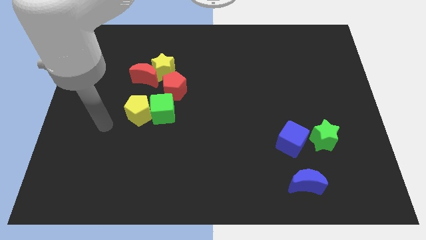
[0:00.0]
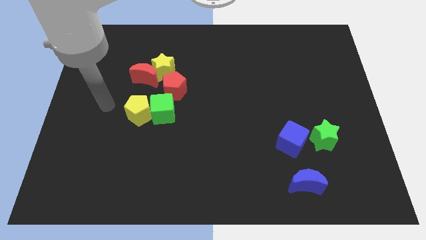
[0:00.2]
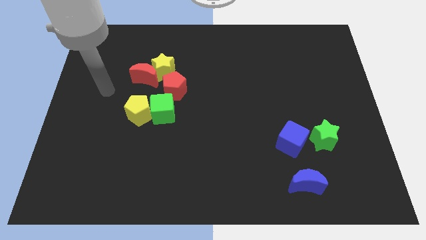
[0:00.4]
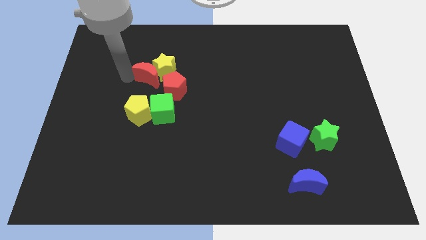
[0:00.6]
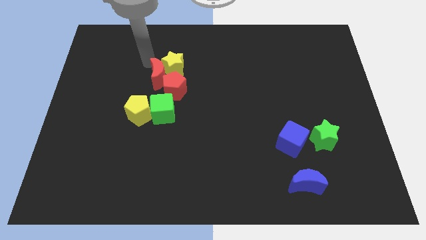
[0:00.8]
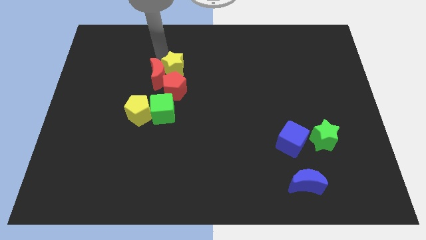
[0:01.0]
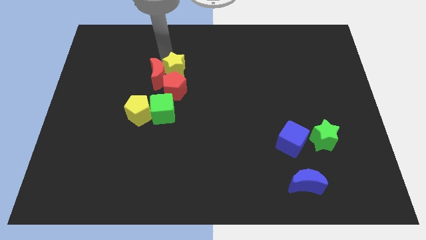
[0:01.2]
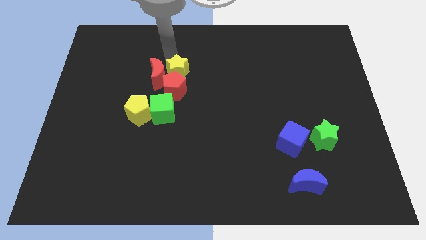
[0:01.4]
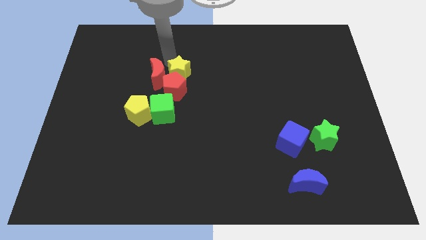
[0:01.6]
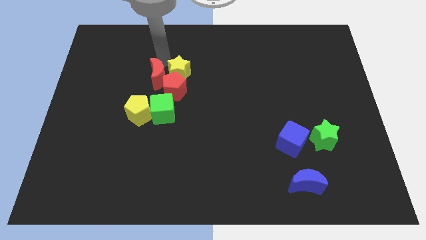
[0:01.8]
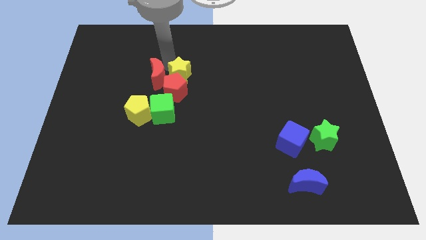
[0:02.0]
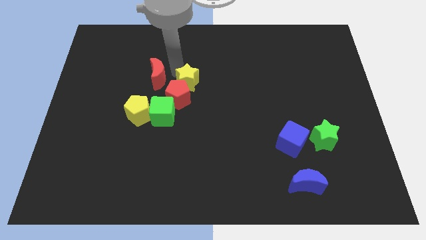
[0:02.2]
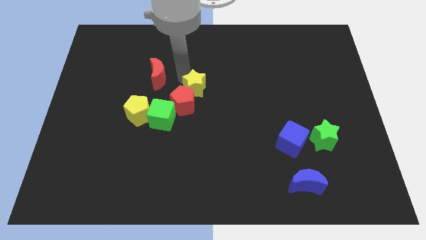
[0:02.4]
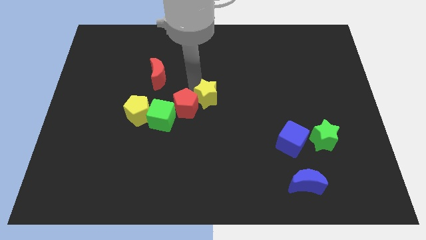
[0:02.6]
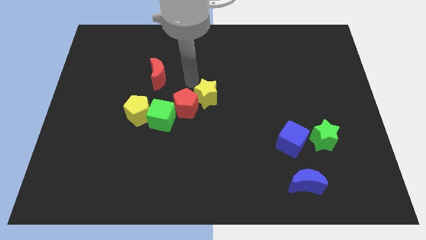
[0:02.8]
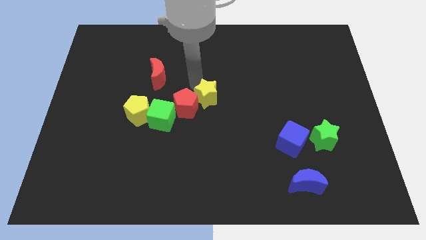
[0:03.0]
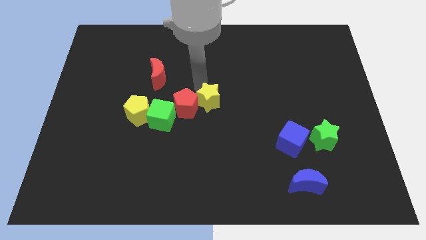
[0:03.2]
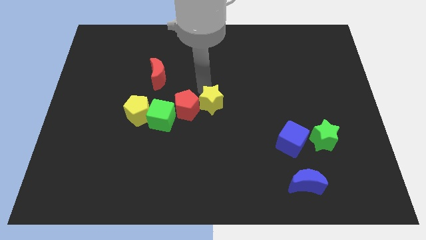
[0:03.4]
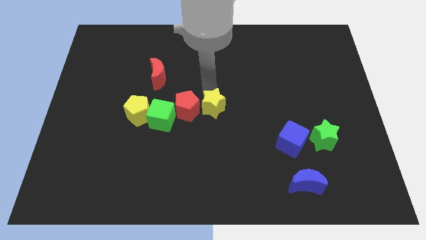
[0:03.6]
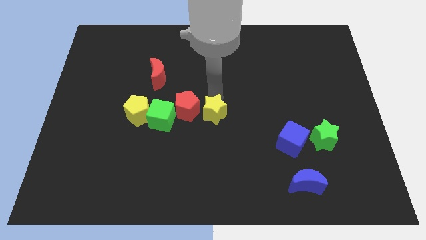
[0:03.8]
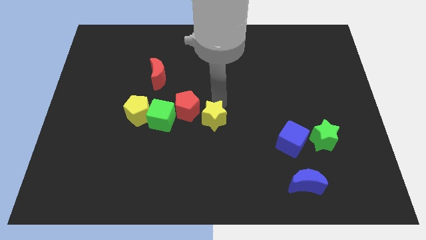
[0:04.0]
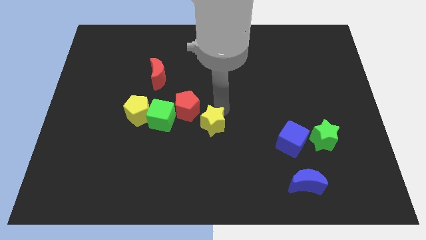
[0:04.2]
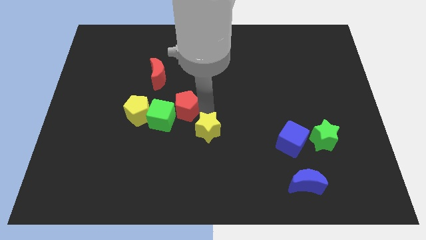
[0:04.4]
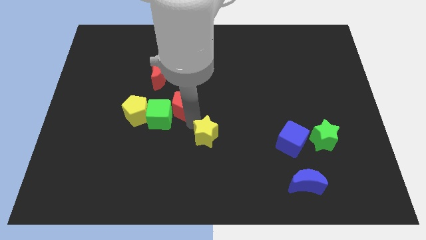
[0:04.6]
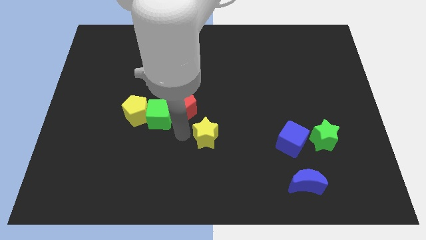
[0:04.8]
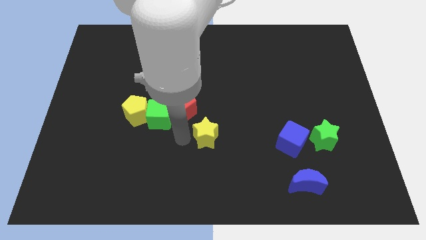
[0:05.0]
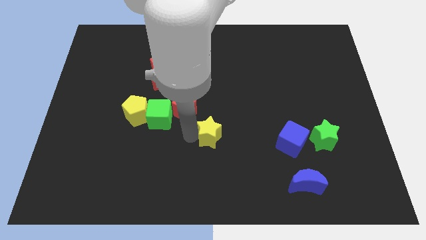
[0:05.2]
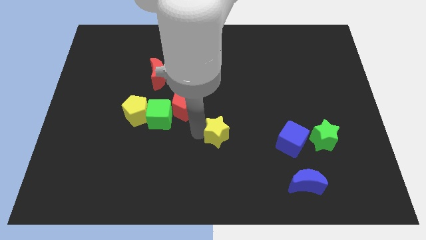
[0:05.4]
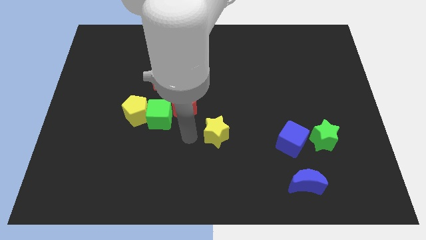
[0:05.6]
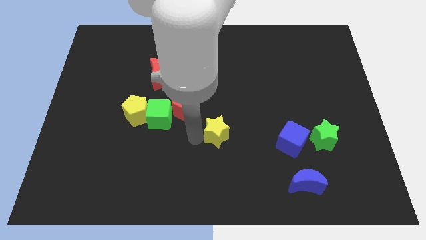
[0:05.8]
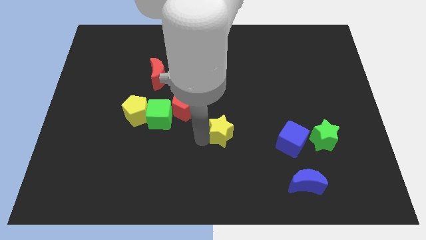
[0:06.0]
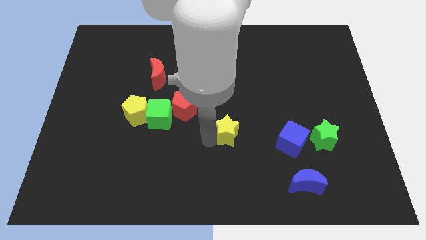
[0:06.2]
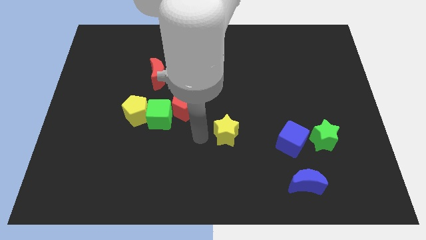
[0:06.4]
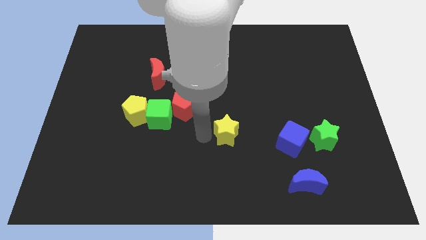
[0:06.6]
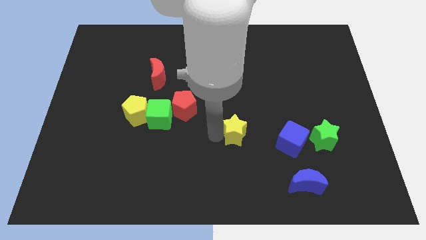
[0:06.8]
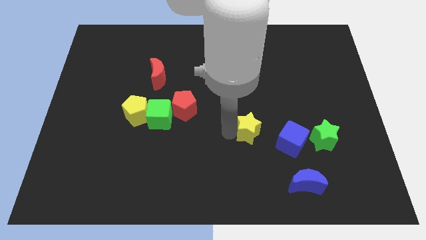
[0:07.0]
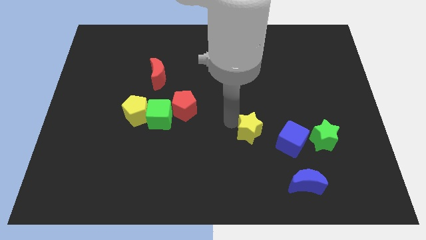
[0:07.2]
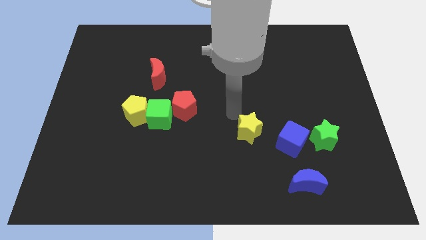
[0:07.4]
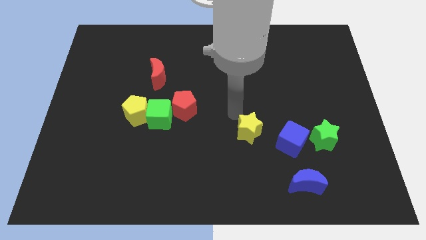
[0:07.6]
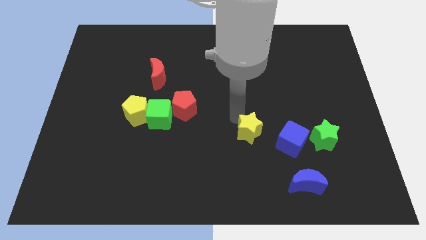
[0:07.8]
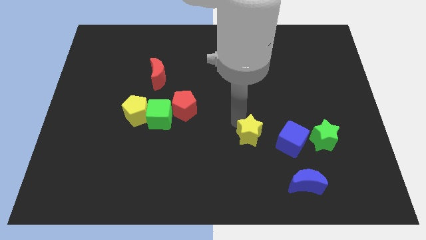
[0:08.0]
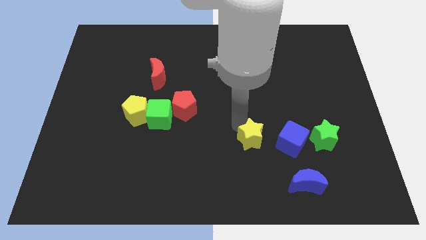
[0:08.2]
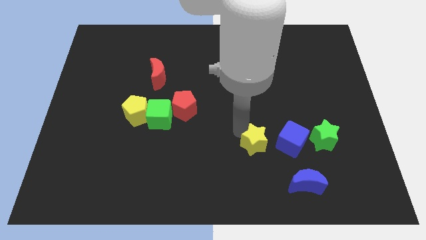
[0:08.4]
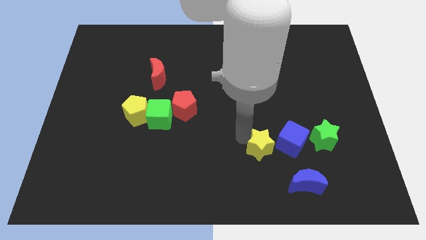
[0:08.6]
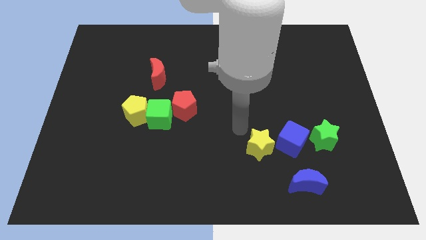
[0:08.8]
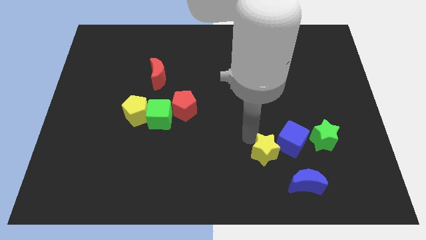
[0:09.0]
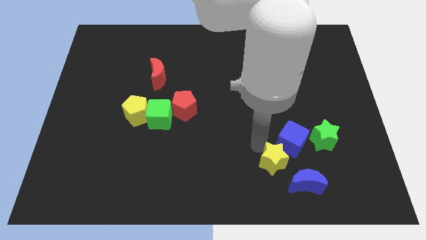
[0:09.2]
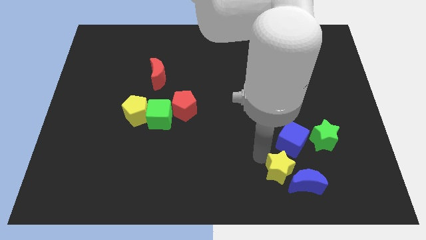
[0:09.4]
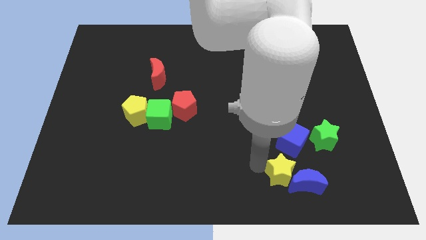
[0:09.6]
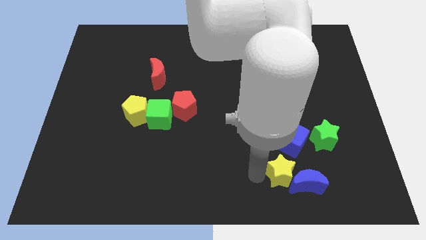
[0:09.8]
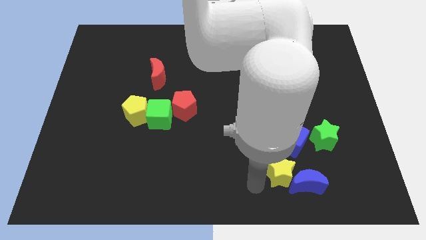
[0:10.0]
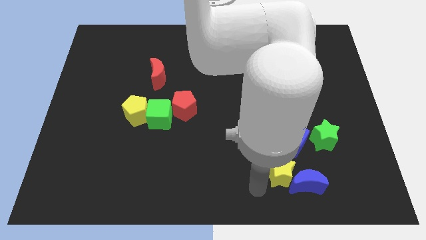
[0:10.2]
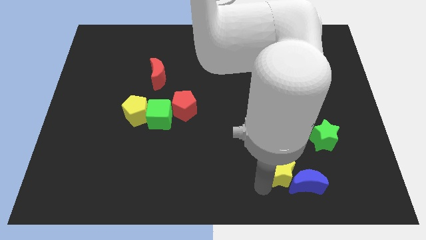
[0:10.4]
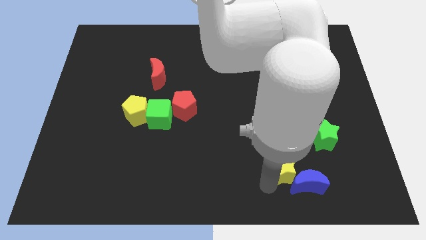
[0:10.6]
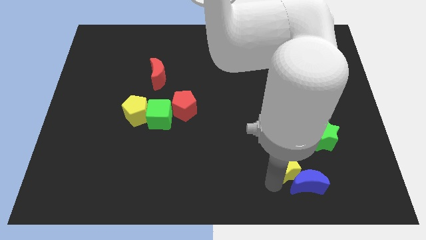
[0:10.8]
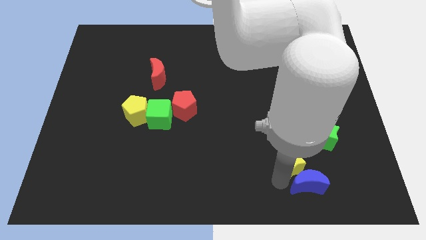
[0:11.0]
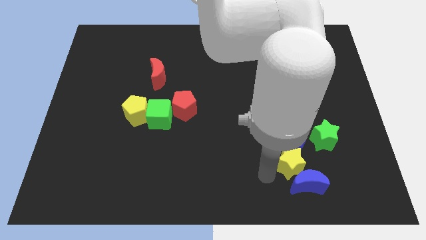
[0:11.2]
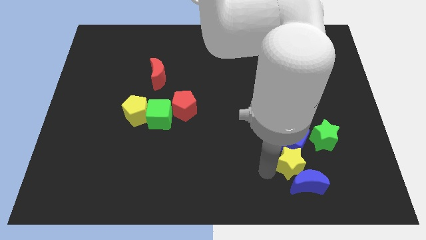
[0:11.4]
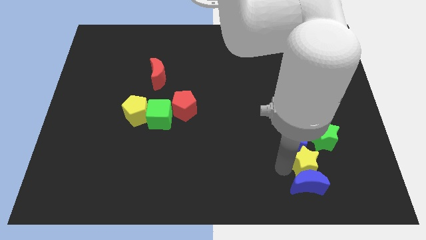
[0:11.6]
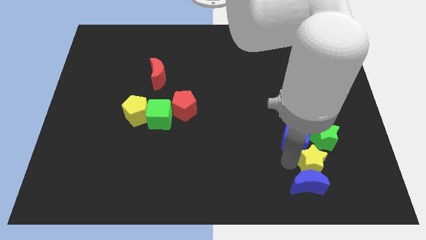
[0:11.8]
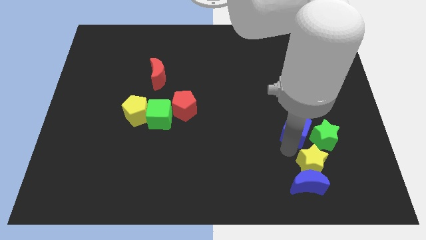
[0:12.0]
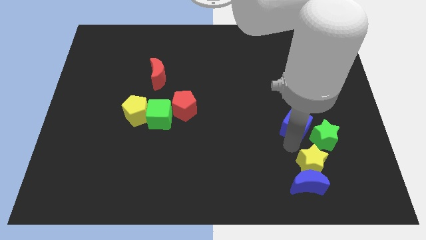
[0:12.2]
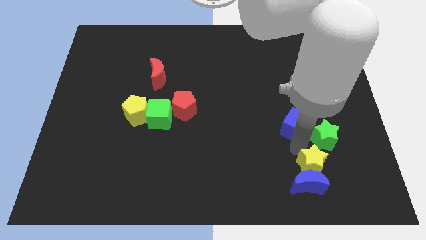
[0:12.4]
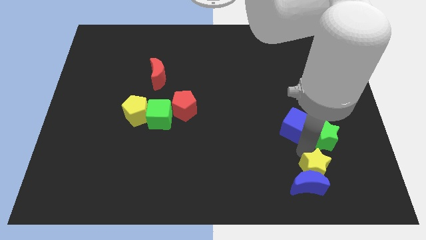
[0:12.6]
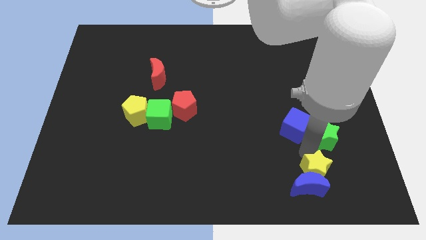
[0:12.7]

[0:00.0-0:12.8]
push the yellow star just right of the blue moon

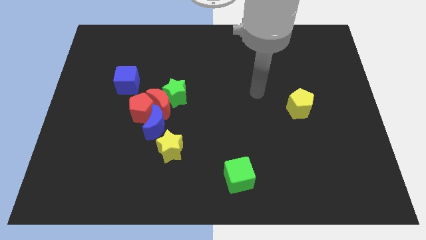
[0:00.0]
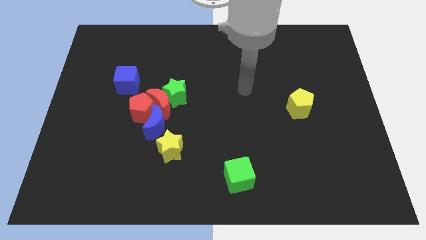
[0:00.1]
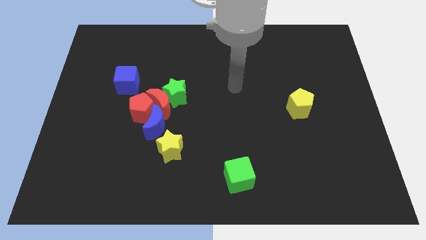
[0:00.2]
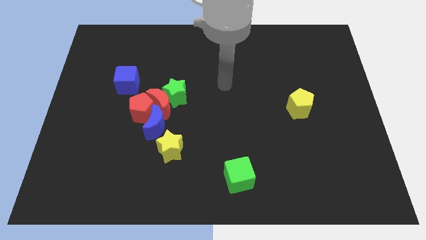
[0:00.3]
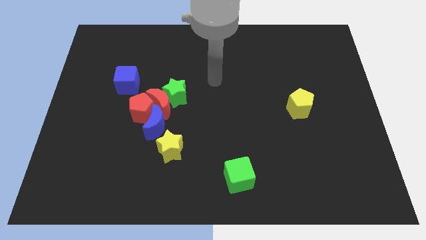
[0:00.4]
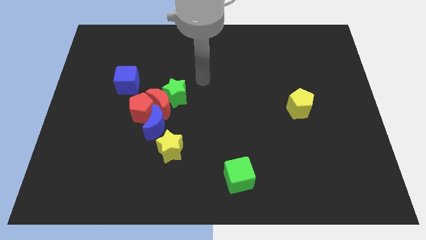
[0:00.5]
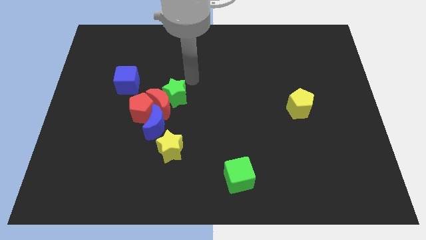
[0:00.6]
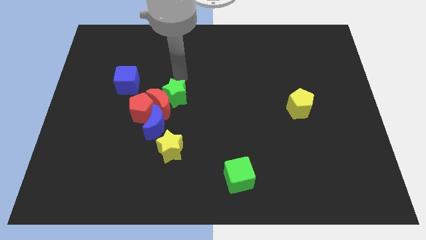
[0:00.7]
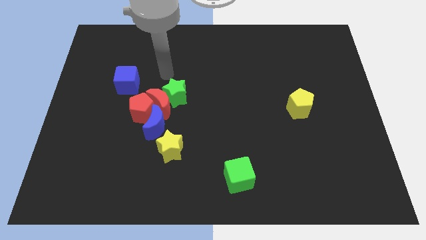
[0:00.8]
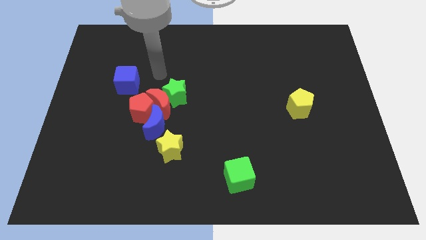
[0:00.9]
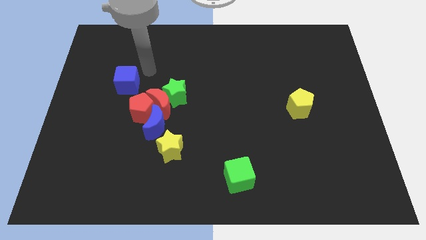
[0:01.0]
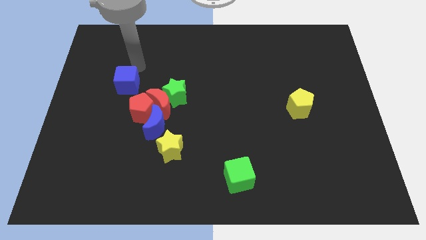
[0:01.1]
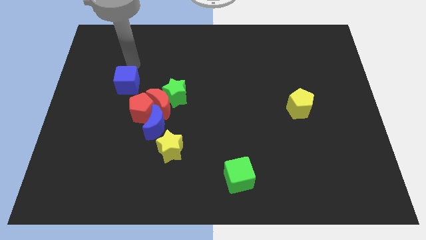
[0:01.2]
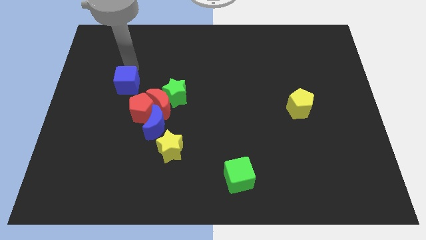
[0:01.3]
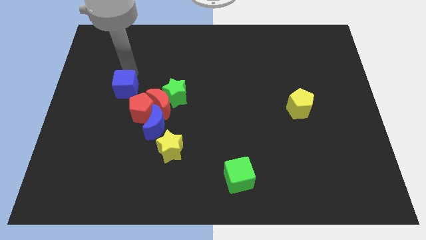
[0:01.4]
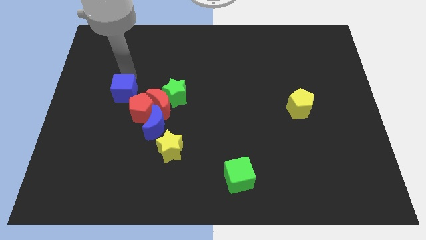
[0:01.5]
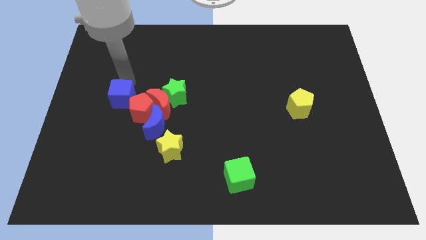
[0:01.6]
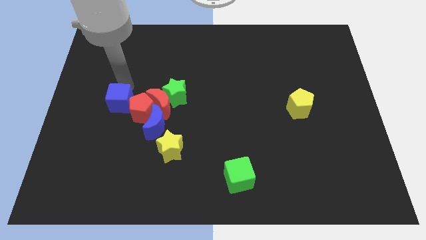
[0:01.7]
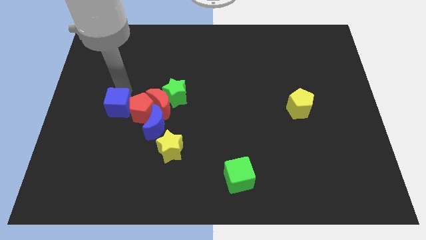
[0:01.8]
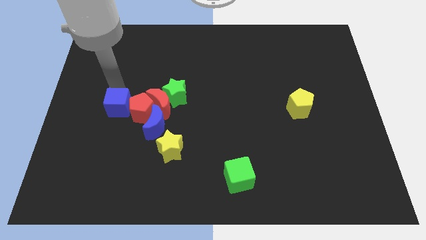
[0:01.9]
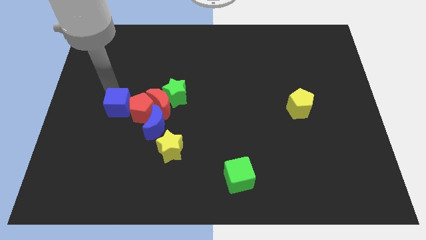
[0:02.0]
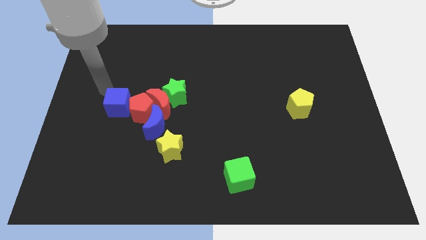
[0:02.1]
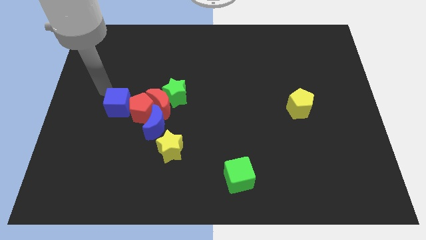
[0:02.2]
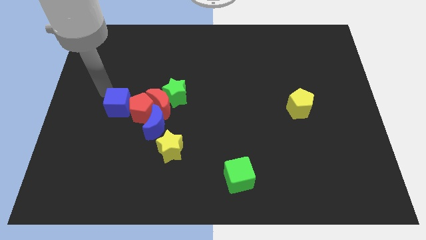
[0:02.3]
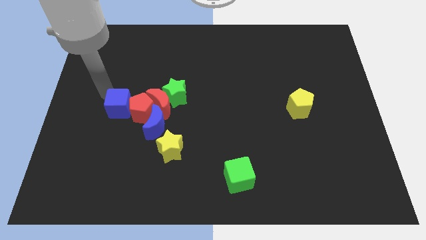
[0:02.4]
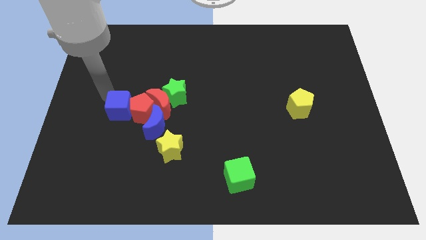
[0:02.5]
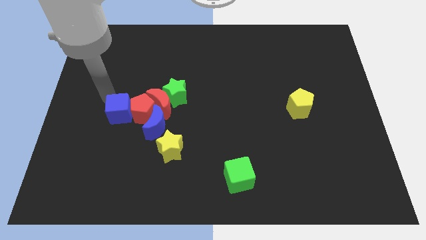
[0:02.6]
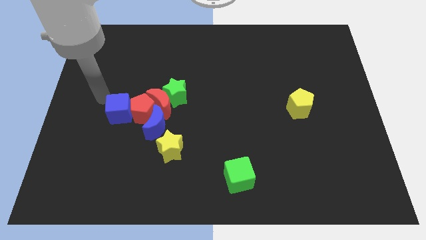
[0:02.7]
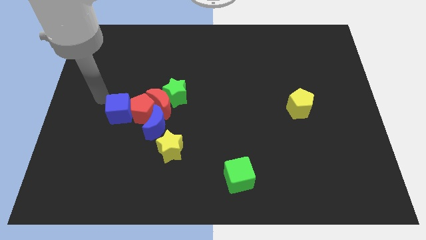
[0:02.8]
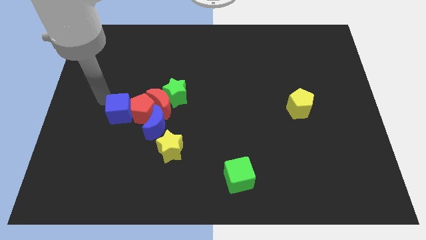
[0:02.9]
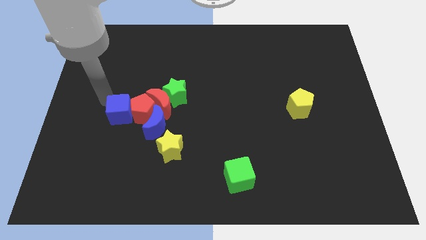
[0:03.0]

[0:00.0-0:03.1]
push the blue cube diagonally down and to the left of the red moon
